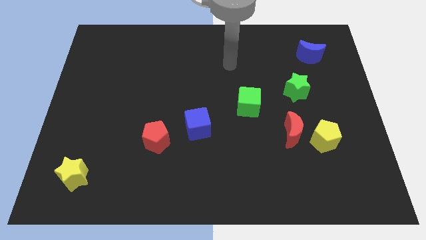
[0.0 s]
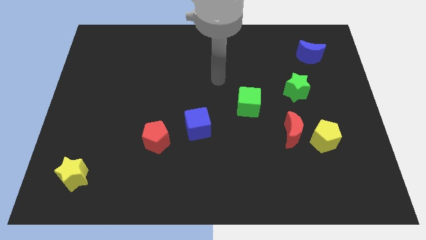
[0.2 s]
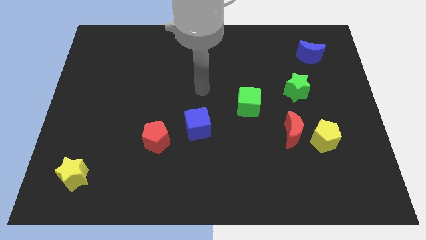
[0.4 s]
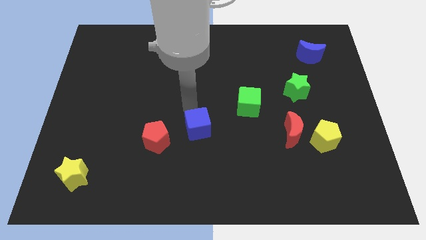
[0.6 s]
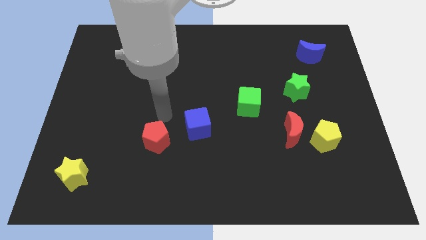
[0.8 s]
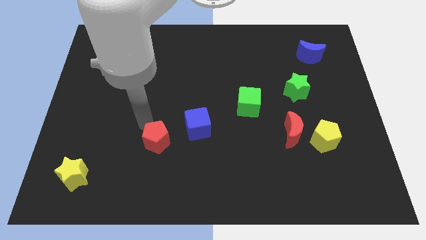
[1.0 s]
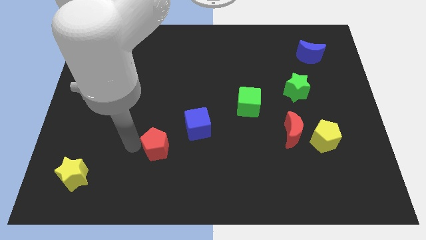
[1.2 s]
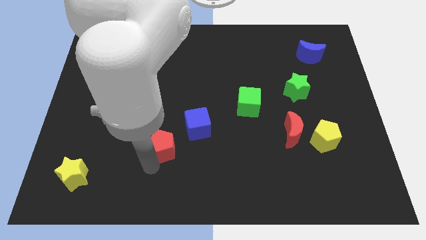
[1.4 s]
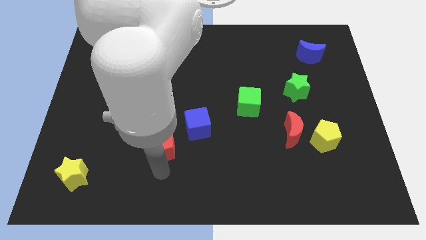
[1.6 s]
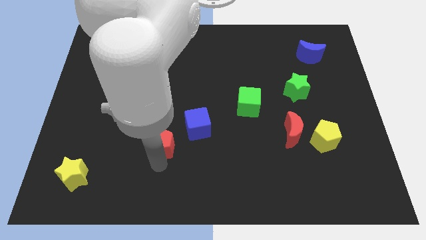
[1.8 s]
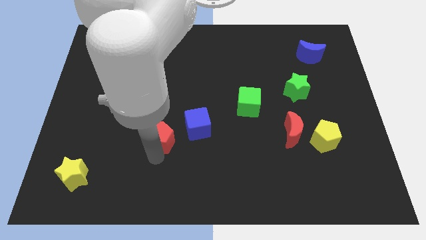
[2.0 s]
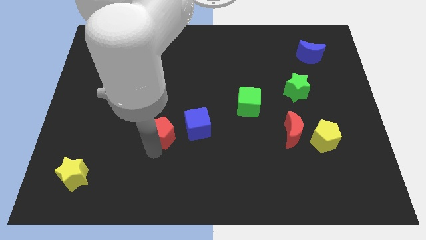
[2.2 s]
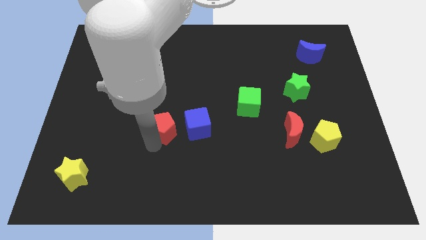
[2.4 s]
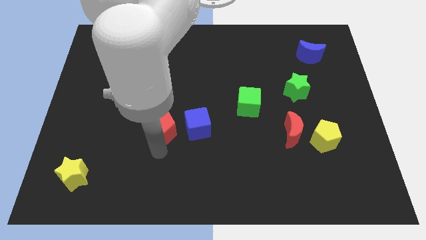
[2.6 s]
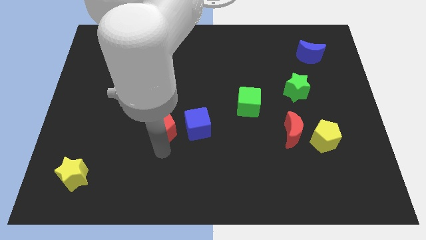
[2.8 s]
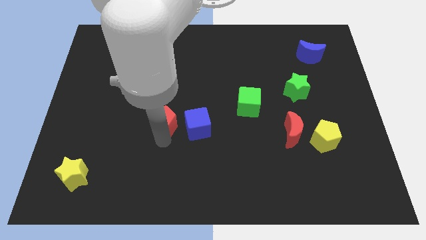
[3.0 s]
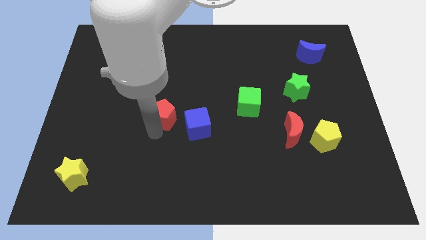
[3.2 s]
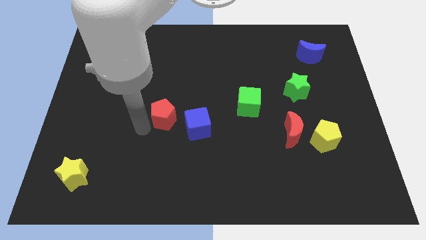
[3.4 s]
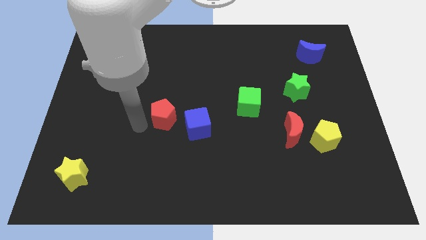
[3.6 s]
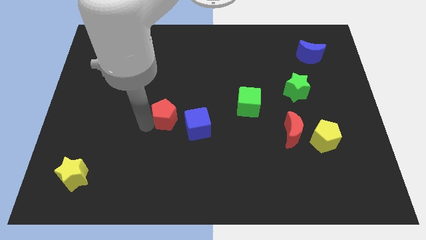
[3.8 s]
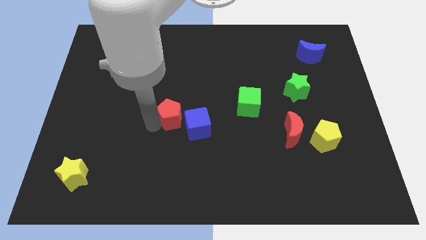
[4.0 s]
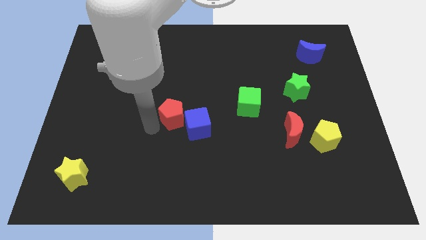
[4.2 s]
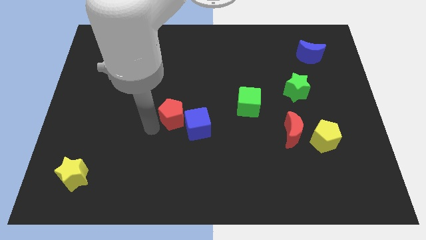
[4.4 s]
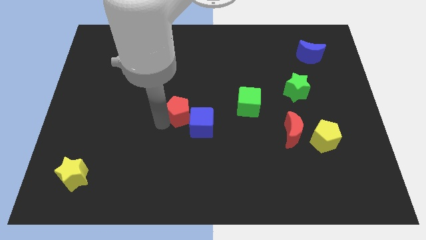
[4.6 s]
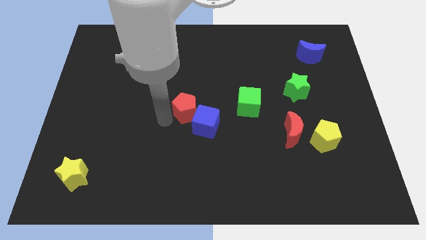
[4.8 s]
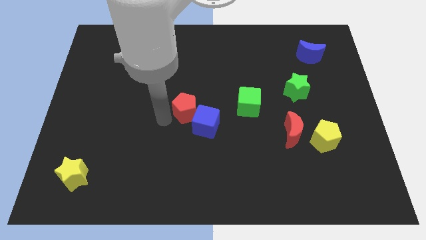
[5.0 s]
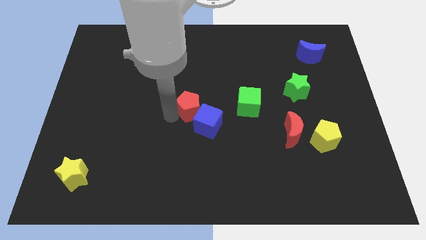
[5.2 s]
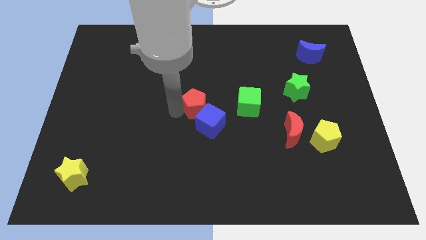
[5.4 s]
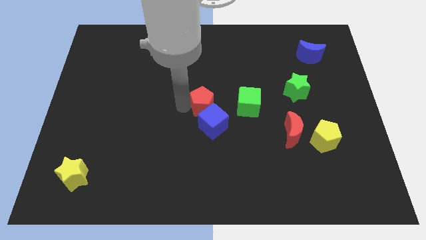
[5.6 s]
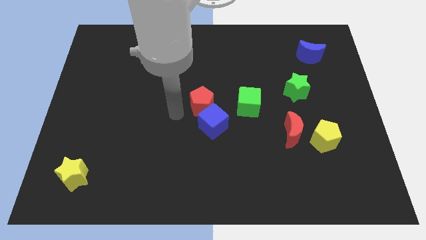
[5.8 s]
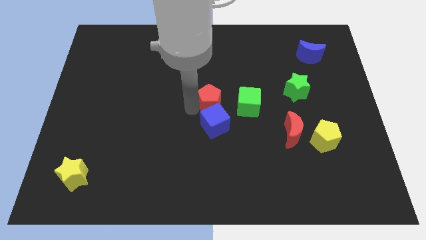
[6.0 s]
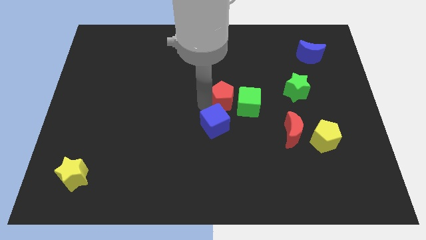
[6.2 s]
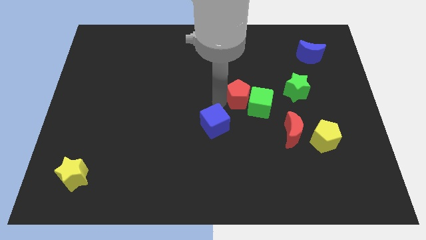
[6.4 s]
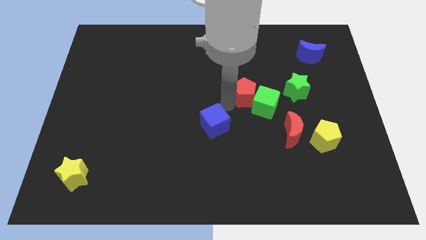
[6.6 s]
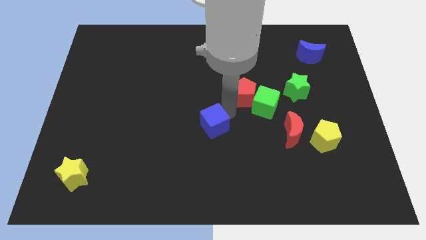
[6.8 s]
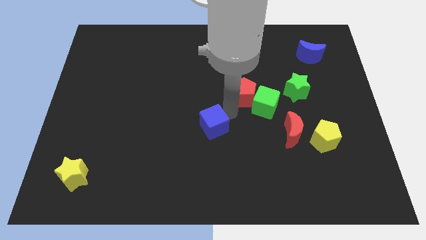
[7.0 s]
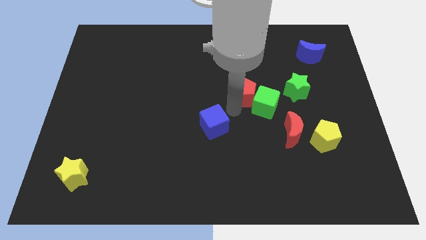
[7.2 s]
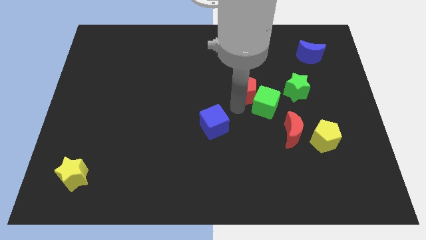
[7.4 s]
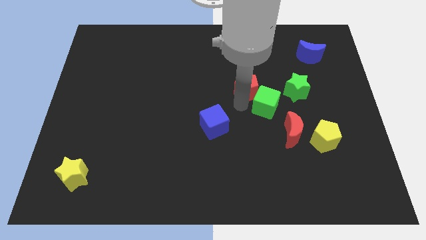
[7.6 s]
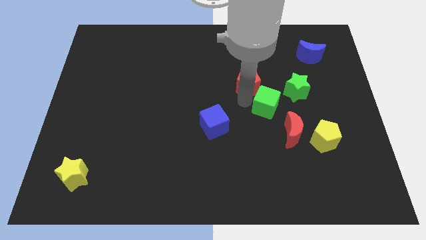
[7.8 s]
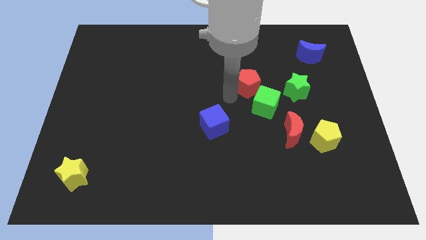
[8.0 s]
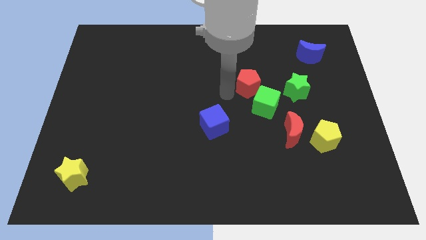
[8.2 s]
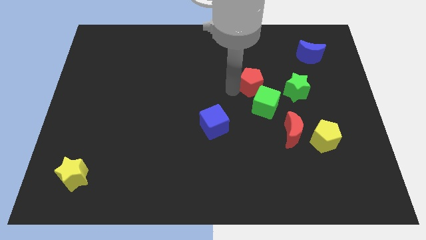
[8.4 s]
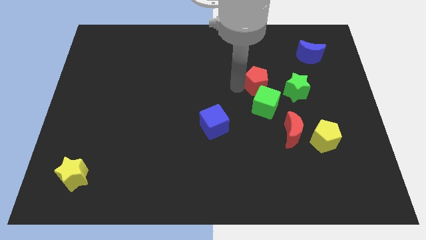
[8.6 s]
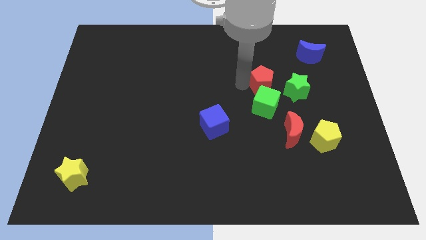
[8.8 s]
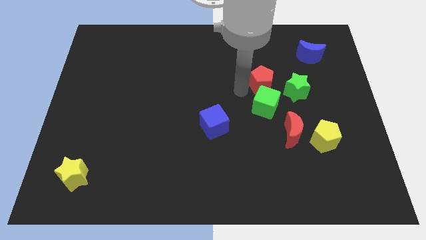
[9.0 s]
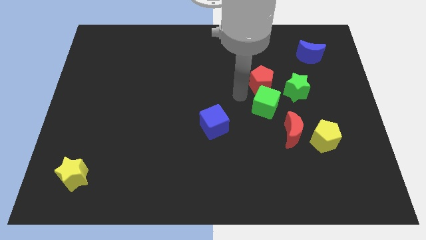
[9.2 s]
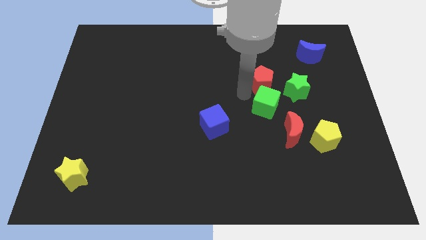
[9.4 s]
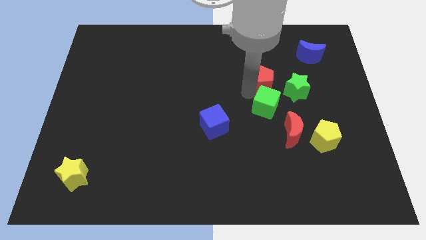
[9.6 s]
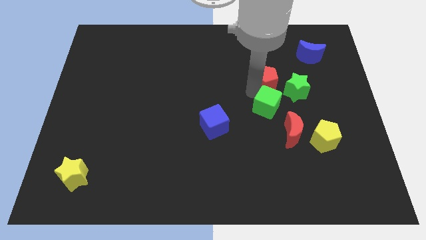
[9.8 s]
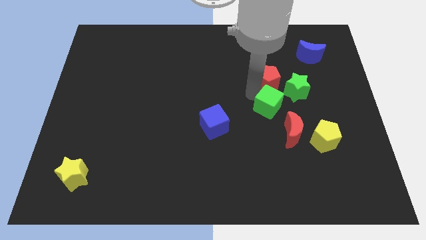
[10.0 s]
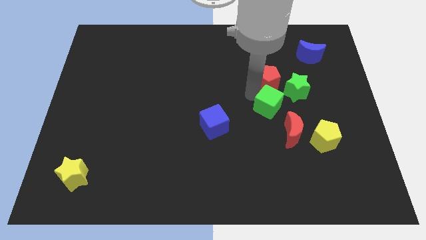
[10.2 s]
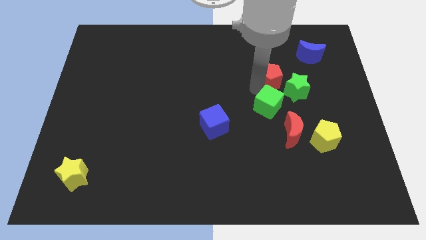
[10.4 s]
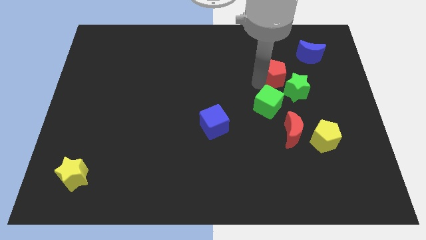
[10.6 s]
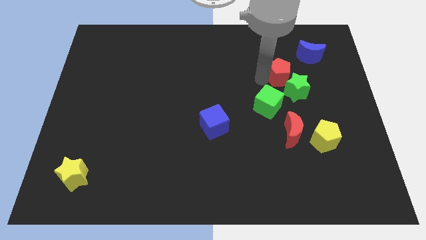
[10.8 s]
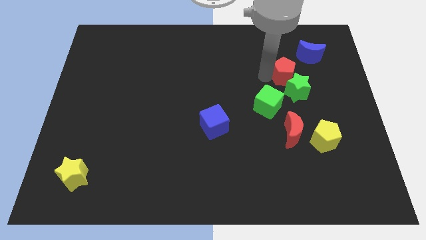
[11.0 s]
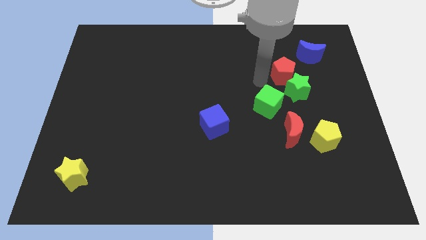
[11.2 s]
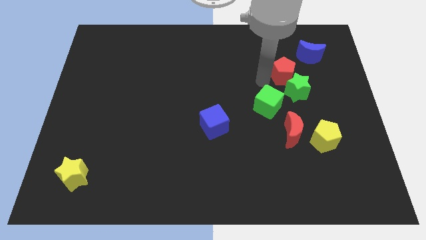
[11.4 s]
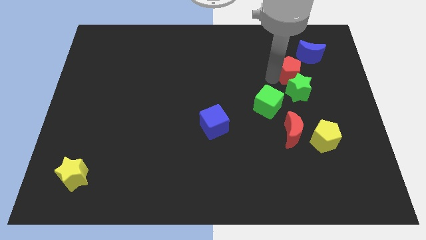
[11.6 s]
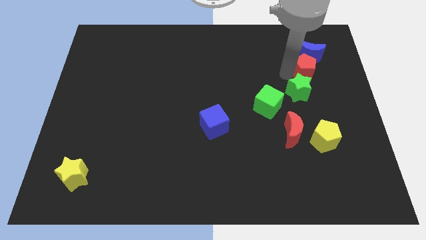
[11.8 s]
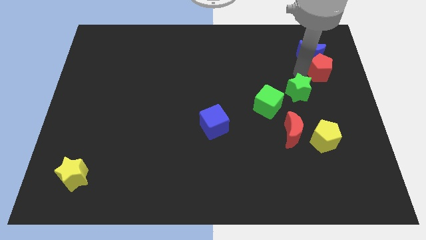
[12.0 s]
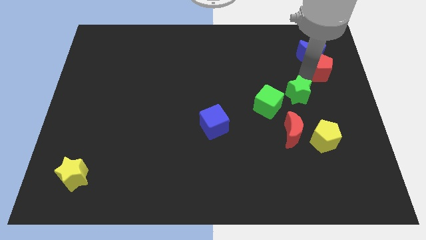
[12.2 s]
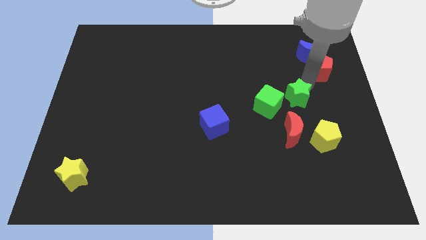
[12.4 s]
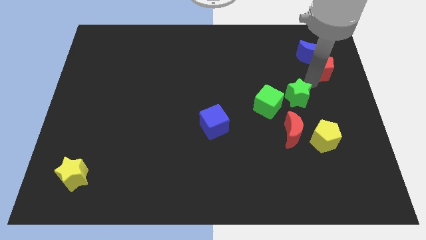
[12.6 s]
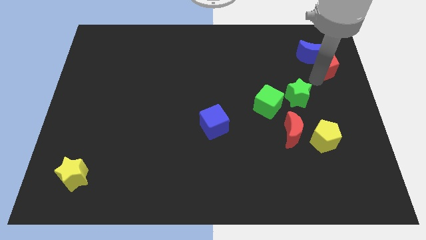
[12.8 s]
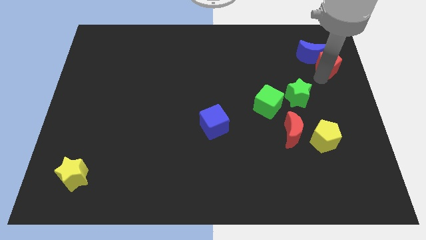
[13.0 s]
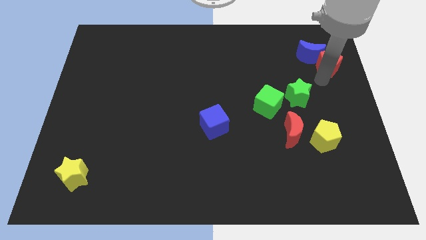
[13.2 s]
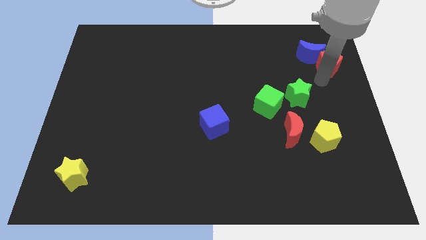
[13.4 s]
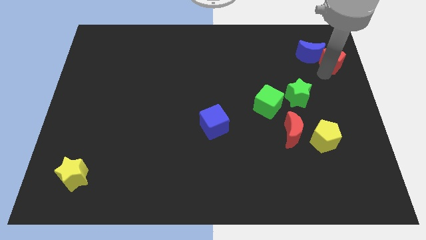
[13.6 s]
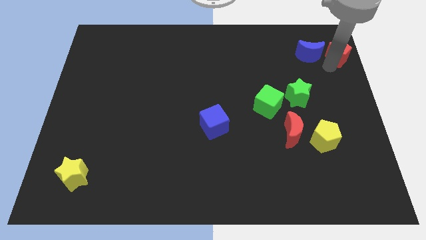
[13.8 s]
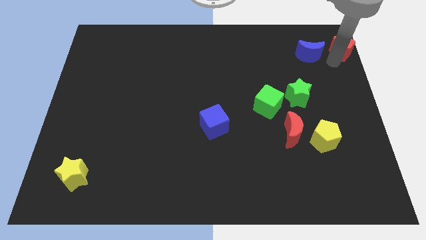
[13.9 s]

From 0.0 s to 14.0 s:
move the red pentagon to the upper right corner
